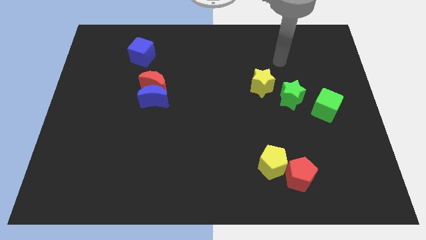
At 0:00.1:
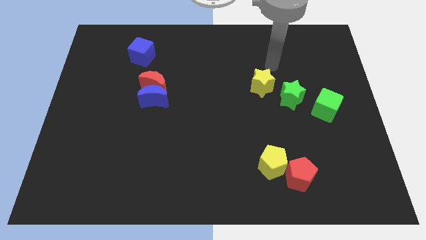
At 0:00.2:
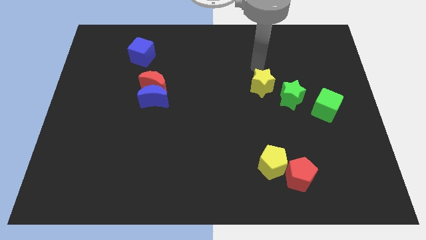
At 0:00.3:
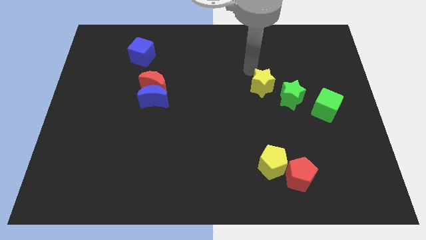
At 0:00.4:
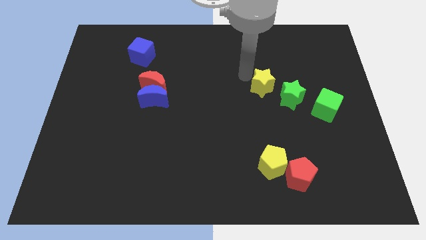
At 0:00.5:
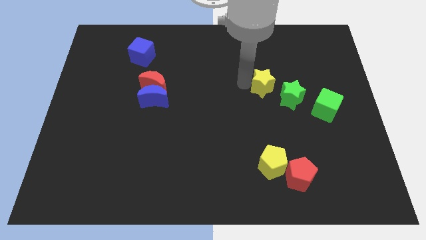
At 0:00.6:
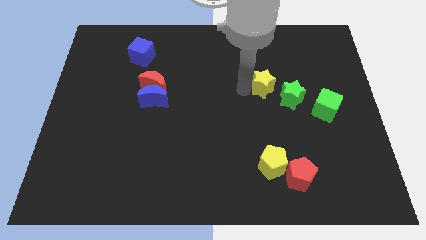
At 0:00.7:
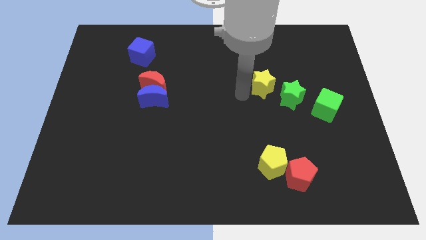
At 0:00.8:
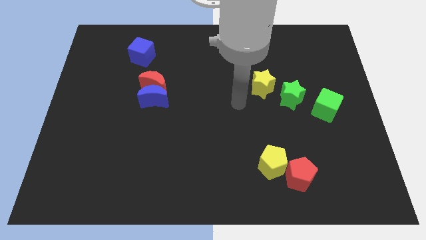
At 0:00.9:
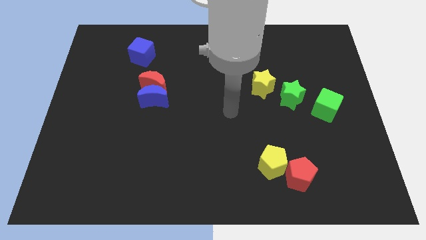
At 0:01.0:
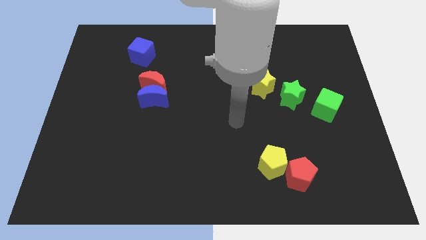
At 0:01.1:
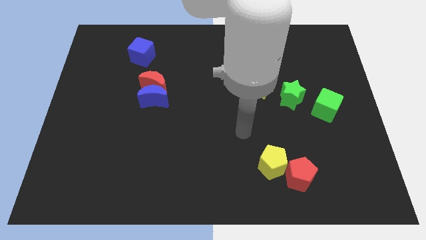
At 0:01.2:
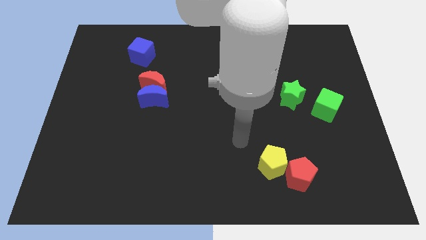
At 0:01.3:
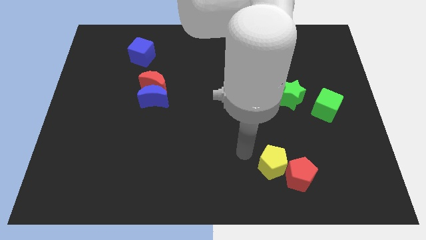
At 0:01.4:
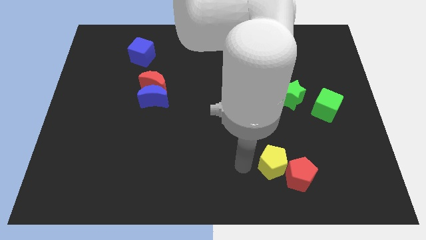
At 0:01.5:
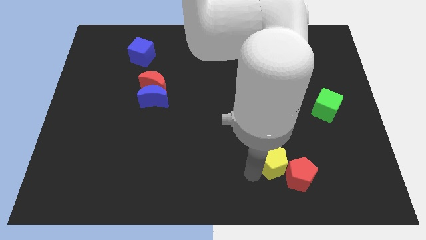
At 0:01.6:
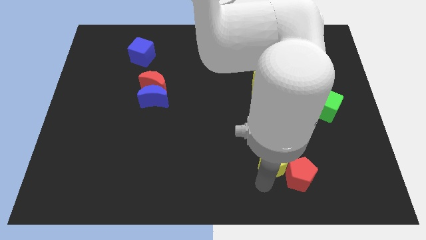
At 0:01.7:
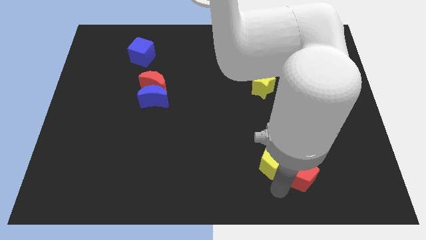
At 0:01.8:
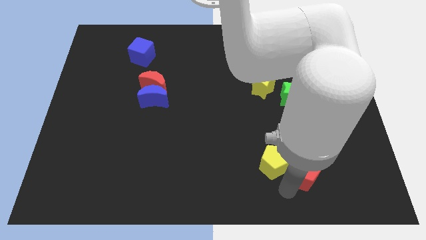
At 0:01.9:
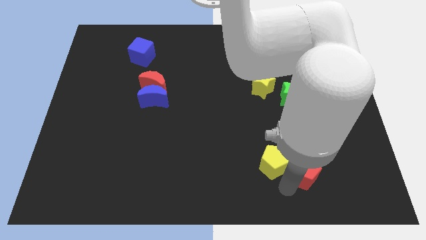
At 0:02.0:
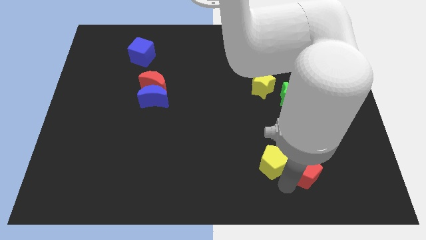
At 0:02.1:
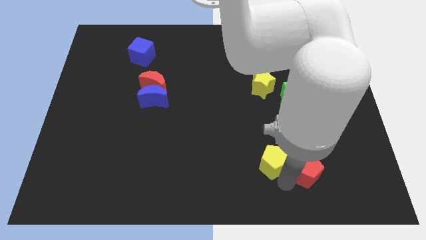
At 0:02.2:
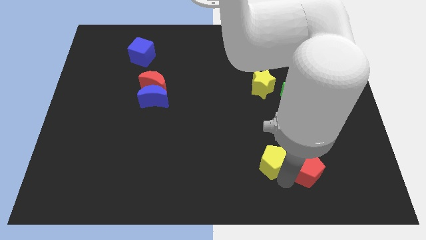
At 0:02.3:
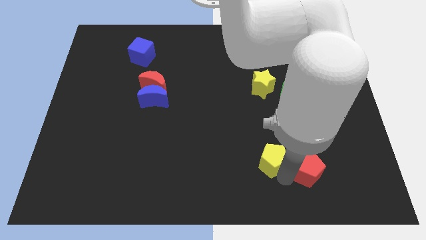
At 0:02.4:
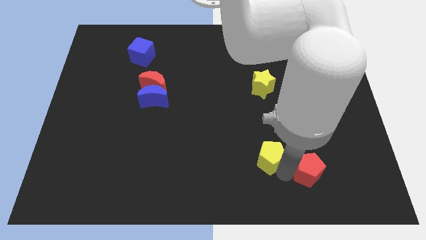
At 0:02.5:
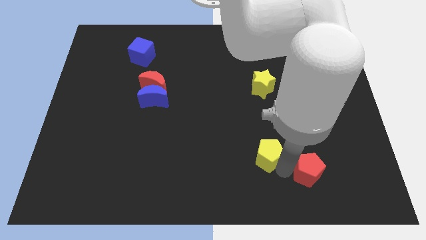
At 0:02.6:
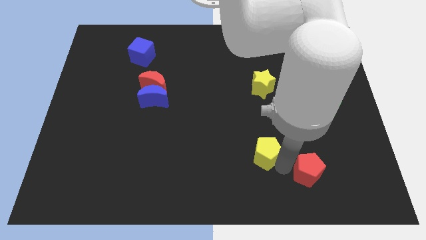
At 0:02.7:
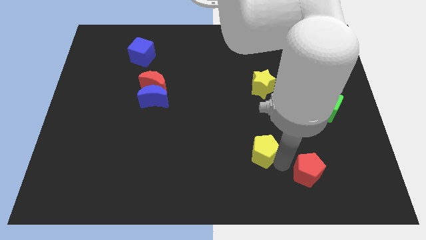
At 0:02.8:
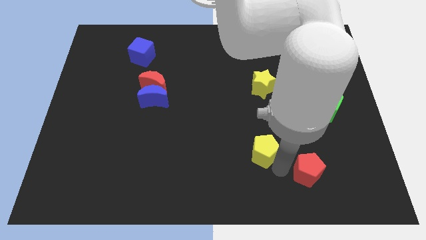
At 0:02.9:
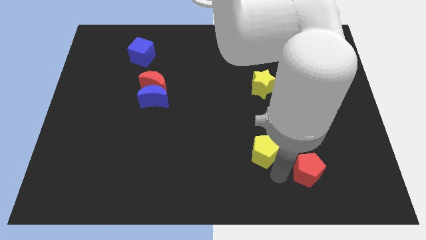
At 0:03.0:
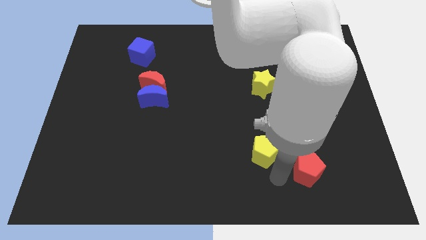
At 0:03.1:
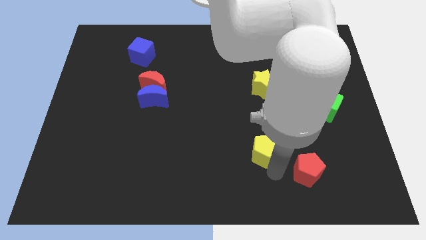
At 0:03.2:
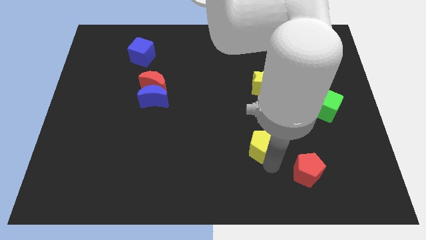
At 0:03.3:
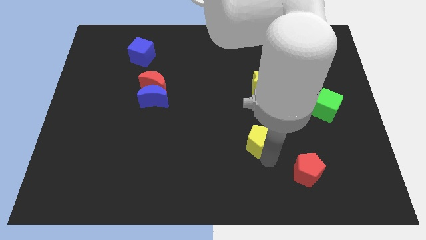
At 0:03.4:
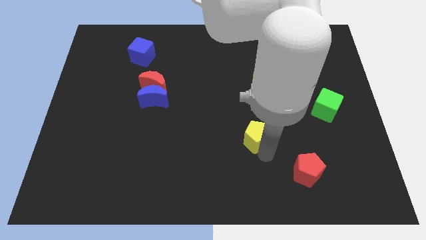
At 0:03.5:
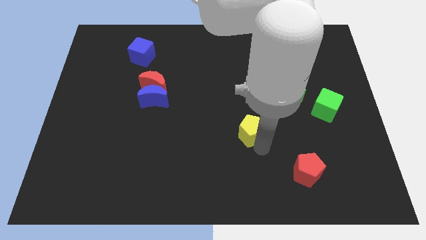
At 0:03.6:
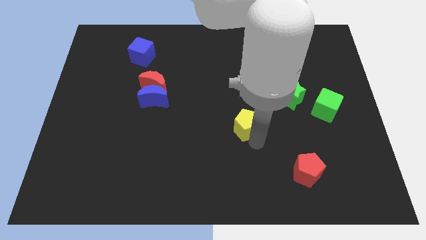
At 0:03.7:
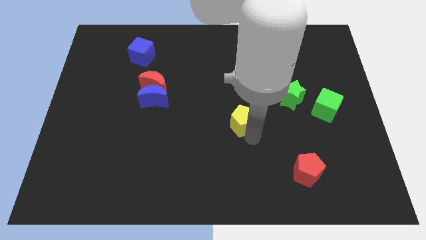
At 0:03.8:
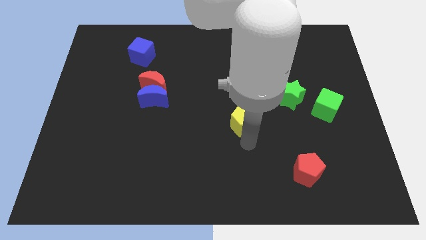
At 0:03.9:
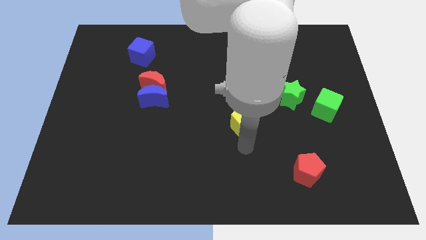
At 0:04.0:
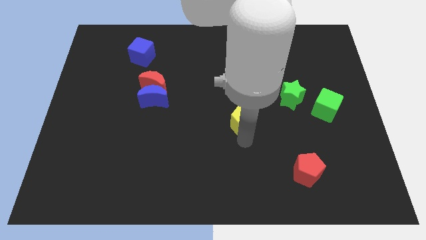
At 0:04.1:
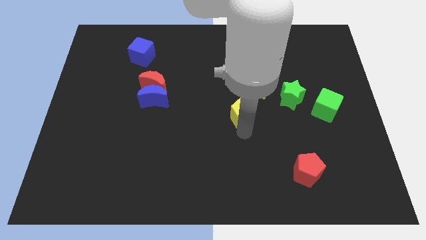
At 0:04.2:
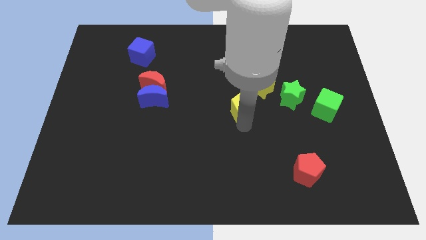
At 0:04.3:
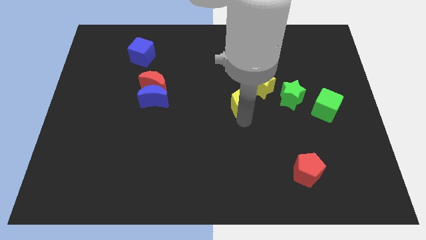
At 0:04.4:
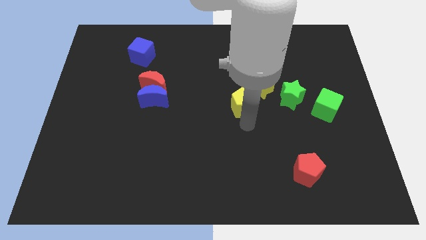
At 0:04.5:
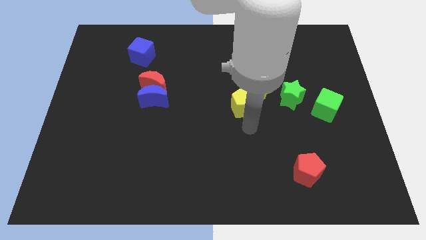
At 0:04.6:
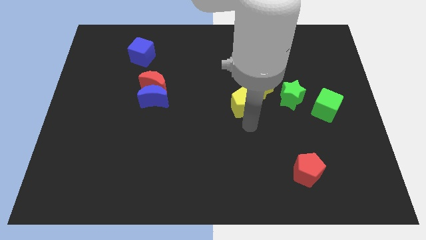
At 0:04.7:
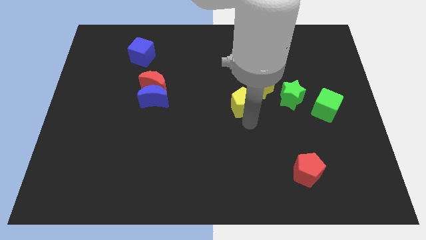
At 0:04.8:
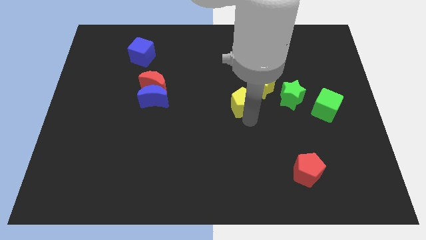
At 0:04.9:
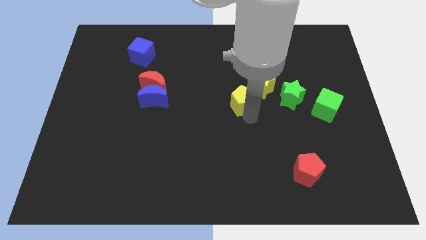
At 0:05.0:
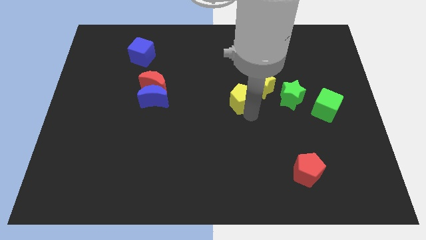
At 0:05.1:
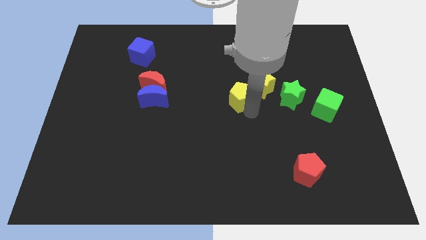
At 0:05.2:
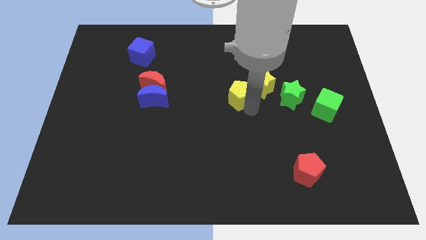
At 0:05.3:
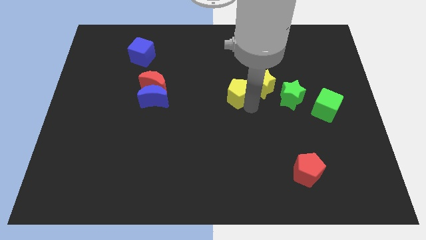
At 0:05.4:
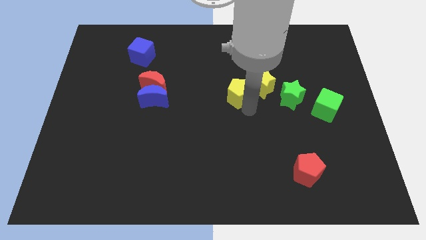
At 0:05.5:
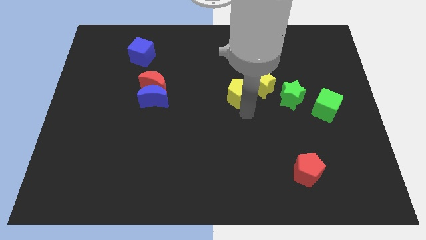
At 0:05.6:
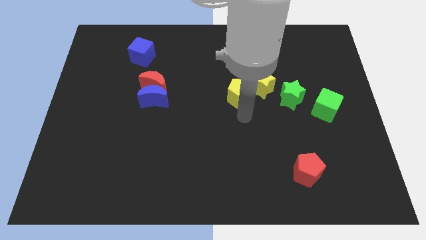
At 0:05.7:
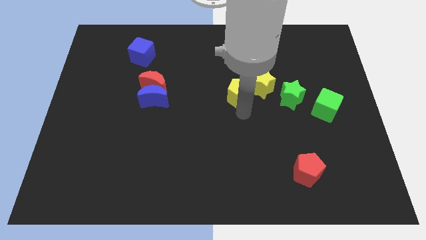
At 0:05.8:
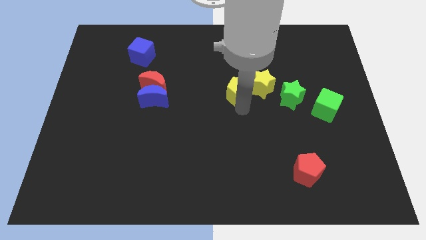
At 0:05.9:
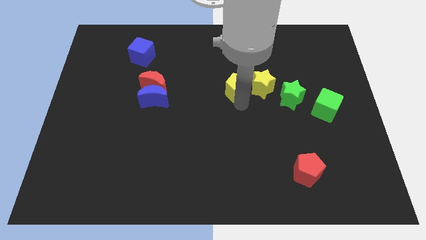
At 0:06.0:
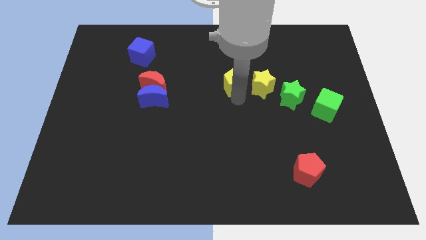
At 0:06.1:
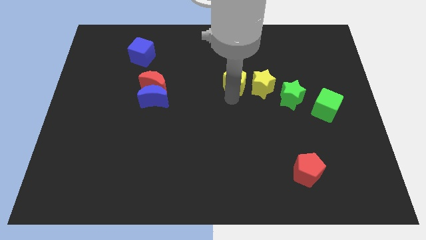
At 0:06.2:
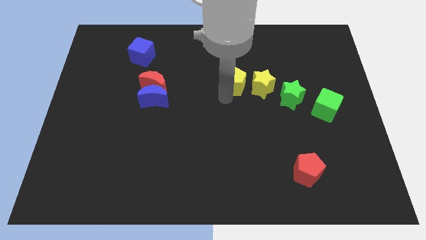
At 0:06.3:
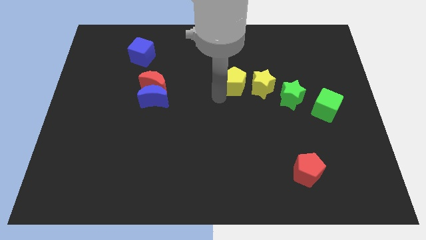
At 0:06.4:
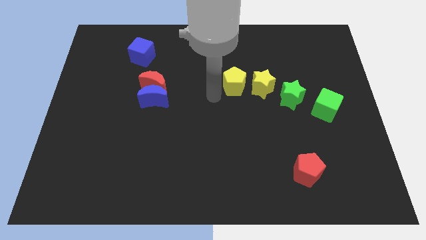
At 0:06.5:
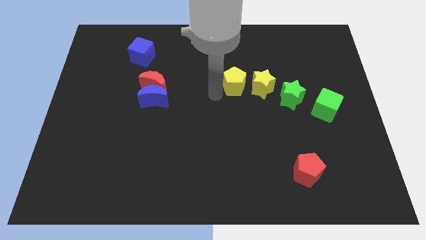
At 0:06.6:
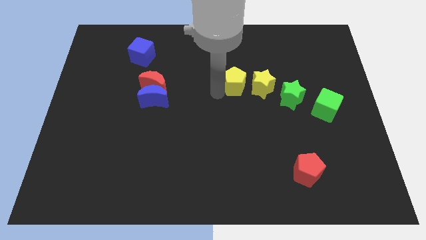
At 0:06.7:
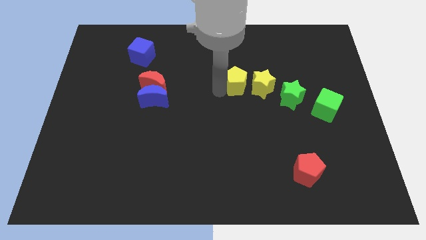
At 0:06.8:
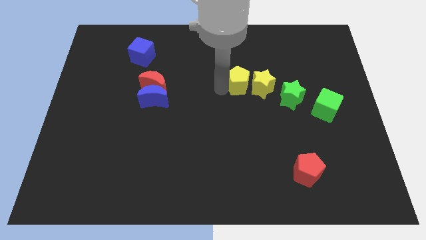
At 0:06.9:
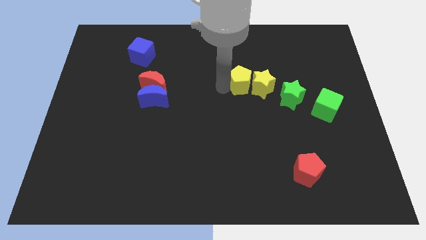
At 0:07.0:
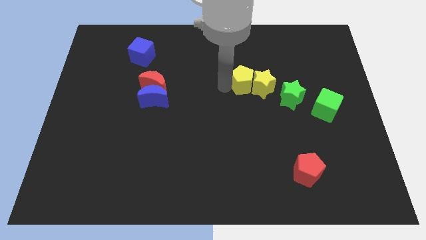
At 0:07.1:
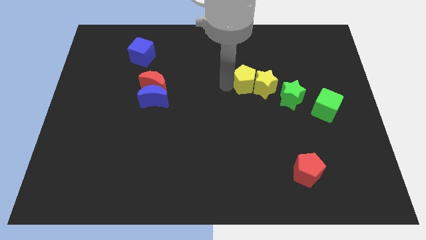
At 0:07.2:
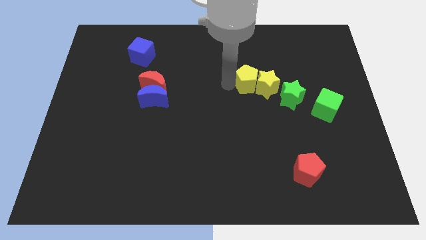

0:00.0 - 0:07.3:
slide the yellow pentagon to the top left side of the green star

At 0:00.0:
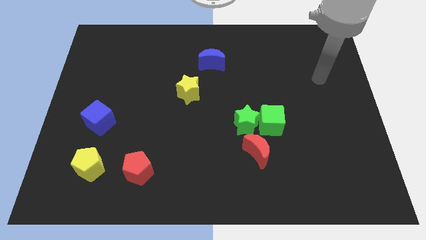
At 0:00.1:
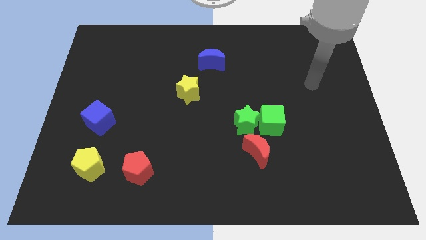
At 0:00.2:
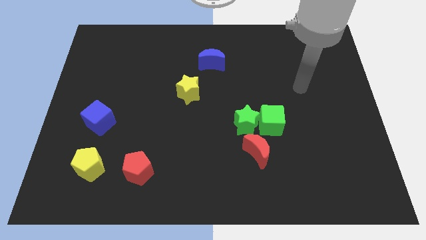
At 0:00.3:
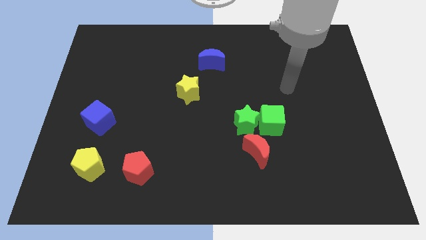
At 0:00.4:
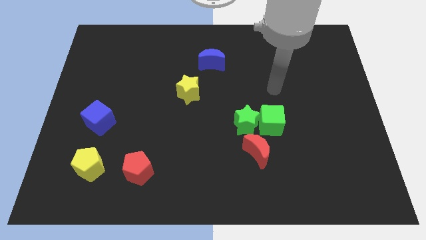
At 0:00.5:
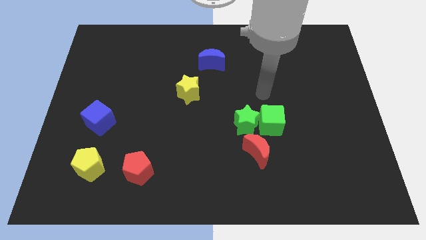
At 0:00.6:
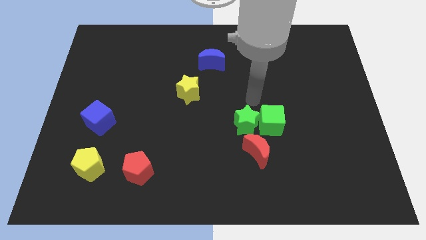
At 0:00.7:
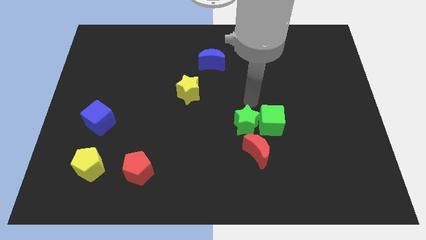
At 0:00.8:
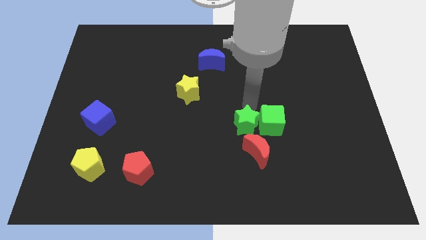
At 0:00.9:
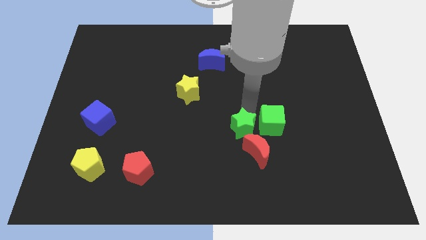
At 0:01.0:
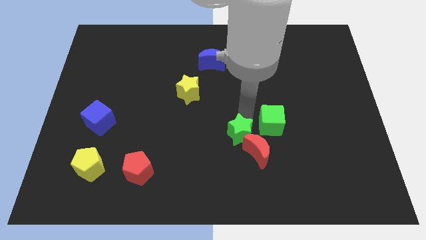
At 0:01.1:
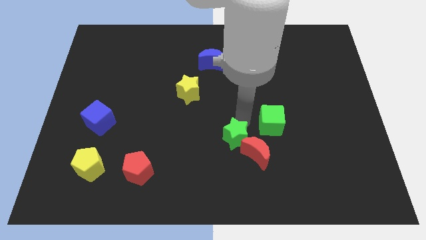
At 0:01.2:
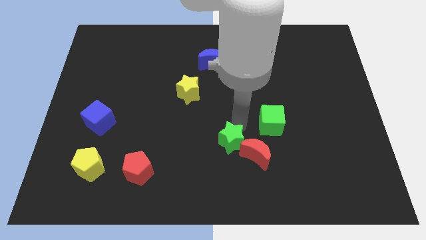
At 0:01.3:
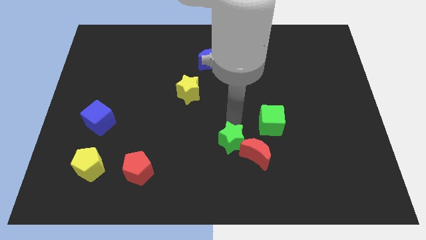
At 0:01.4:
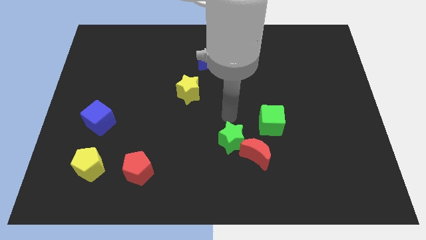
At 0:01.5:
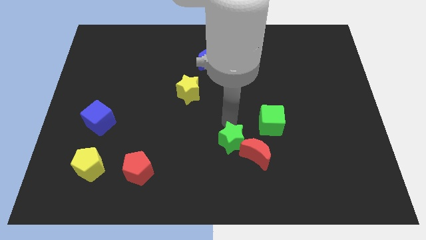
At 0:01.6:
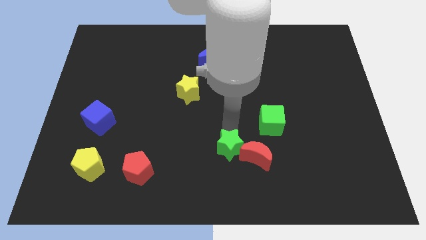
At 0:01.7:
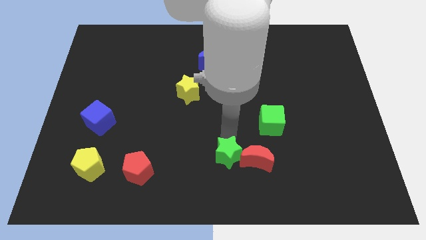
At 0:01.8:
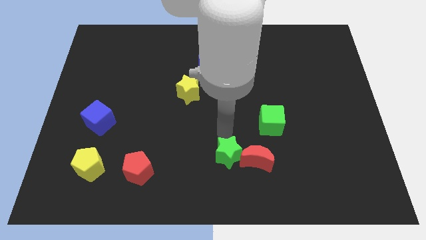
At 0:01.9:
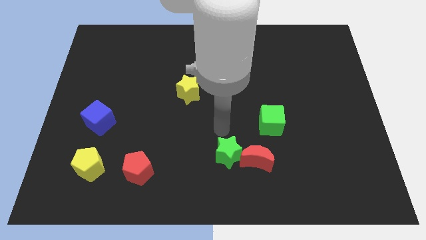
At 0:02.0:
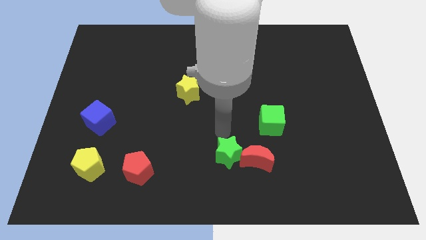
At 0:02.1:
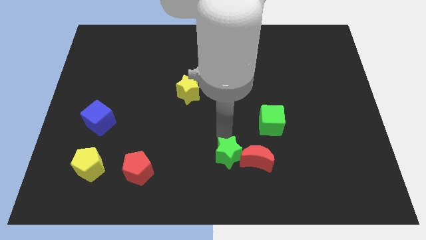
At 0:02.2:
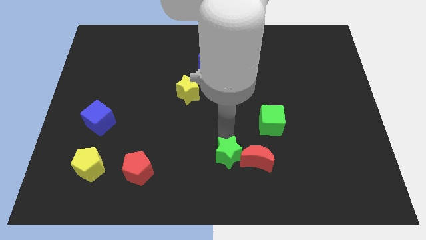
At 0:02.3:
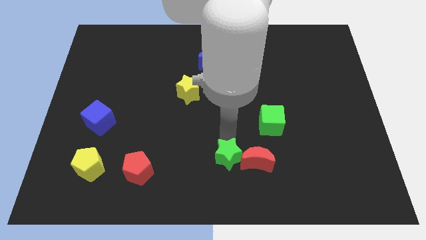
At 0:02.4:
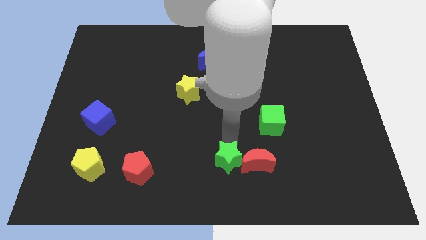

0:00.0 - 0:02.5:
put the green star to the bottom left side of the red moon
